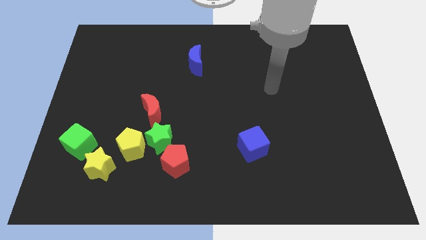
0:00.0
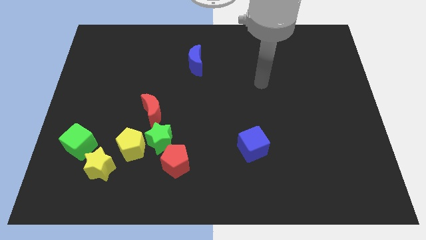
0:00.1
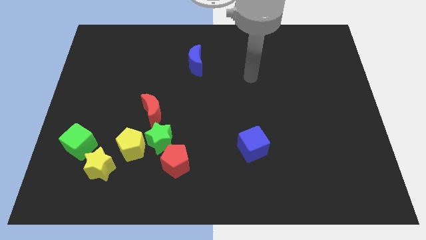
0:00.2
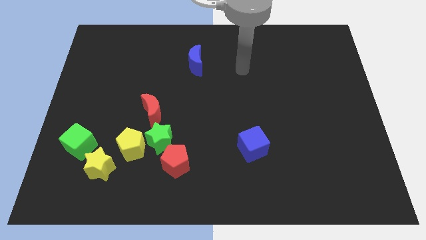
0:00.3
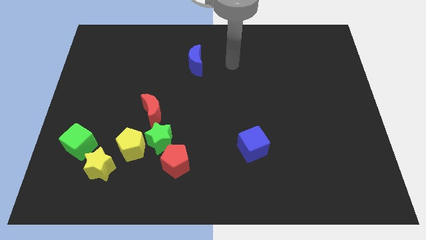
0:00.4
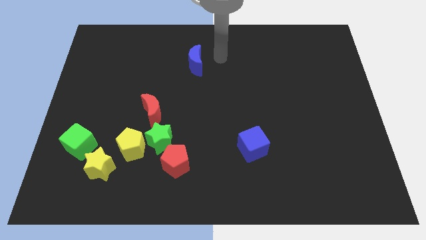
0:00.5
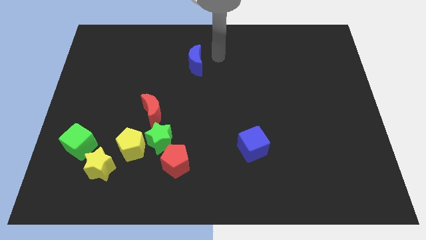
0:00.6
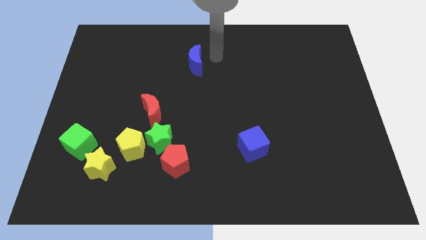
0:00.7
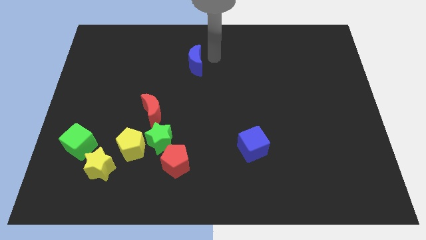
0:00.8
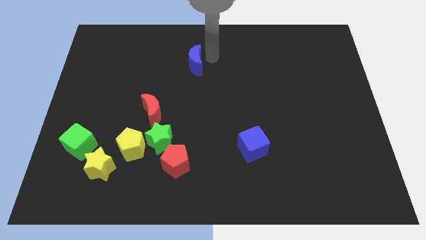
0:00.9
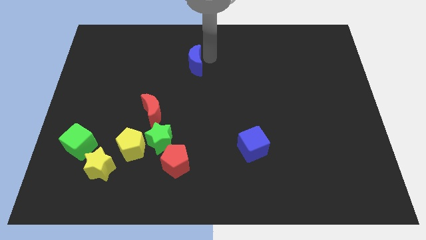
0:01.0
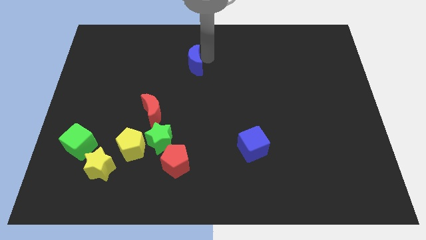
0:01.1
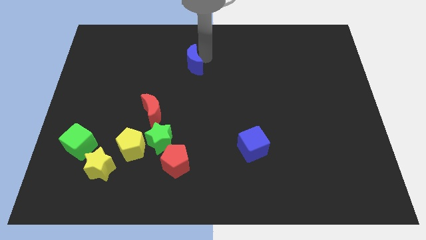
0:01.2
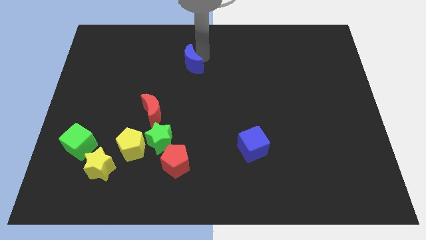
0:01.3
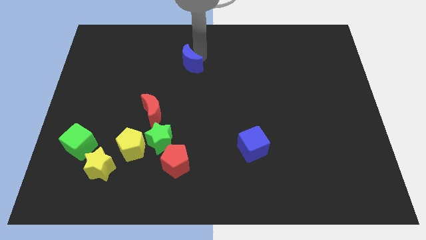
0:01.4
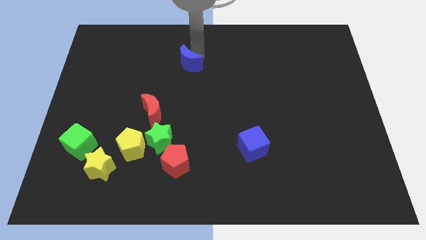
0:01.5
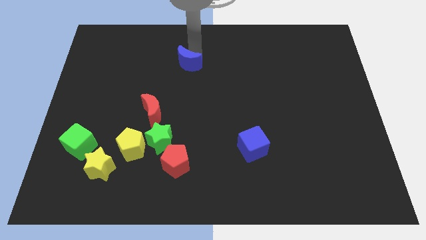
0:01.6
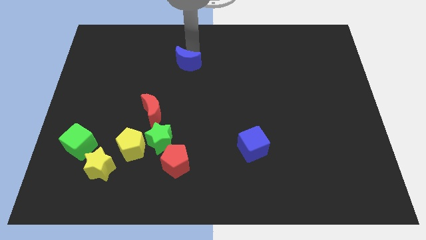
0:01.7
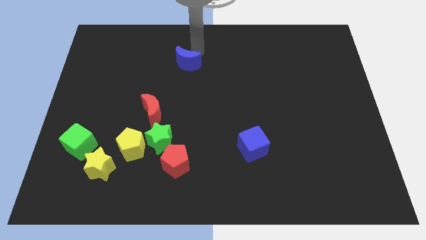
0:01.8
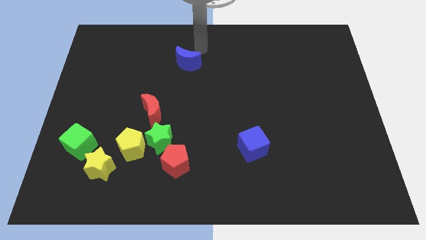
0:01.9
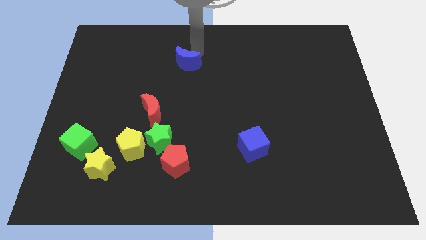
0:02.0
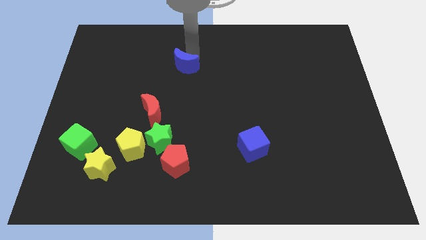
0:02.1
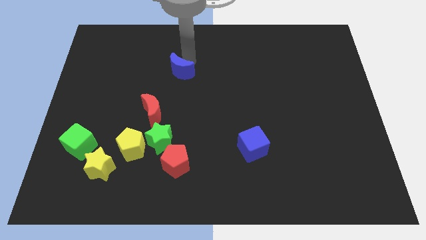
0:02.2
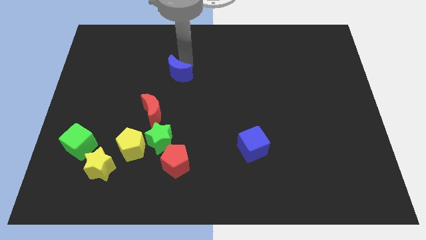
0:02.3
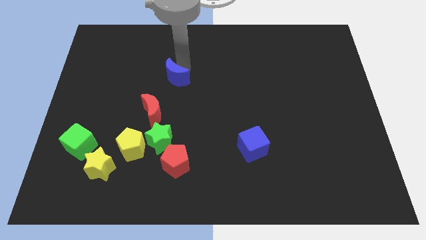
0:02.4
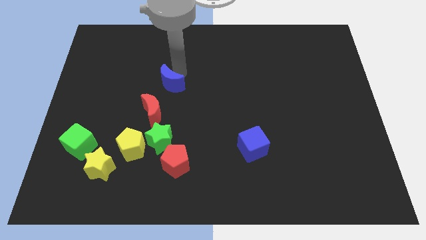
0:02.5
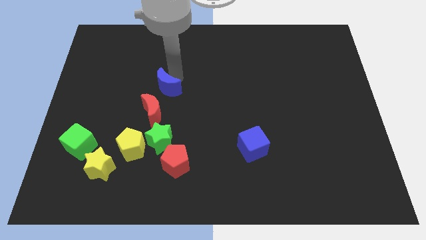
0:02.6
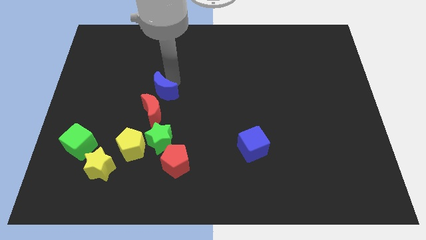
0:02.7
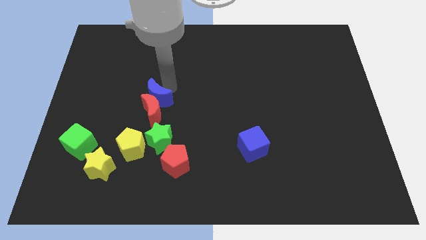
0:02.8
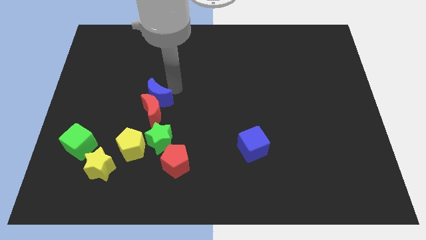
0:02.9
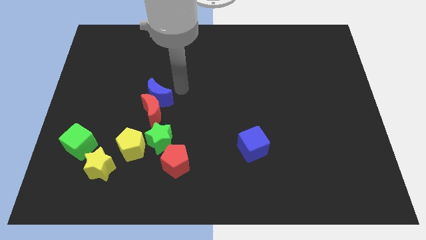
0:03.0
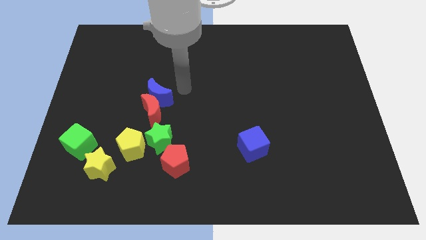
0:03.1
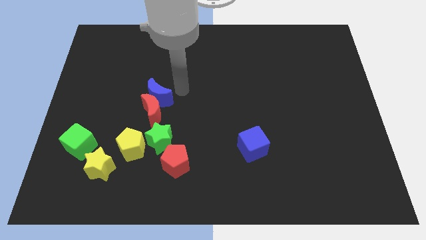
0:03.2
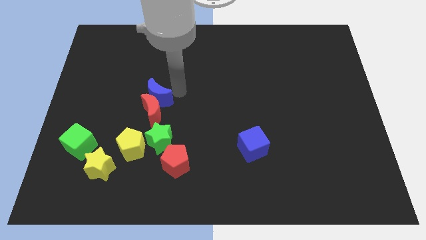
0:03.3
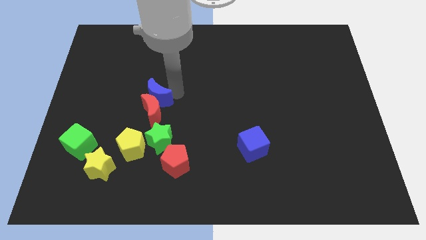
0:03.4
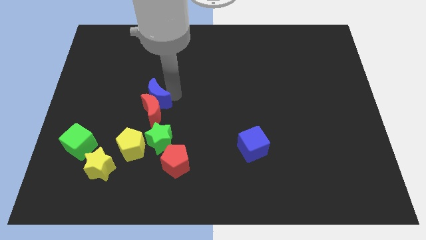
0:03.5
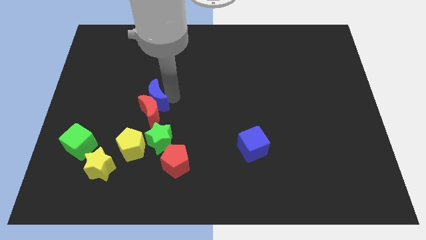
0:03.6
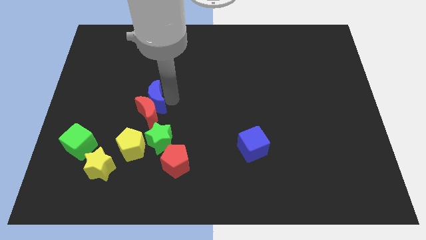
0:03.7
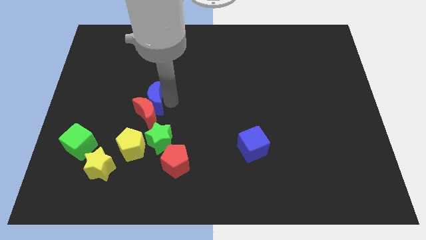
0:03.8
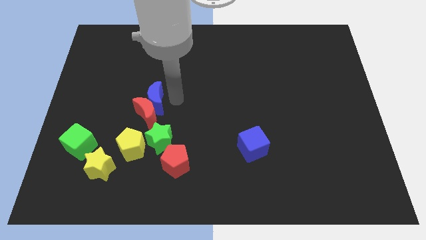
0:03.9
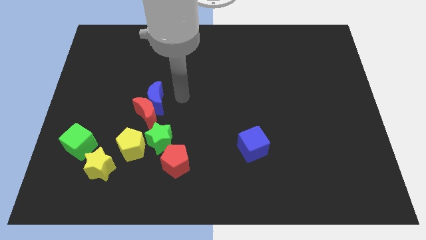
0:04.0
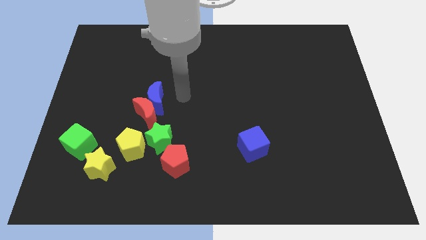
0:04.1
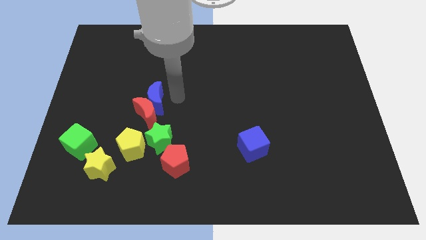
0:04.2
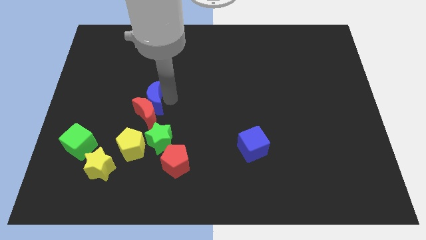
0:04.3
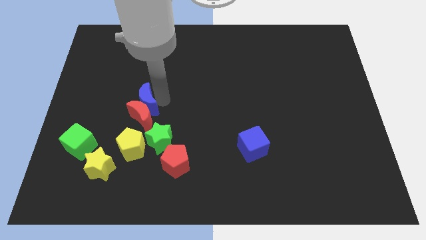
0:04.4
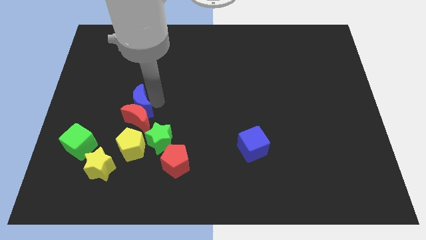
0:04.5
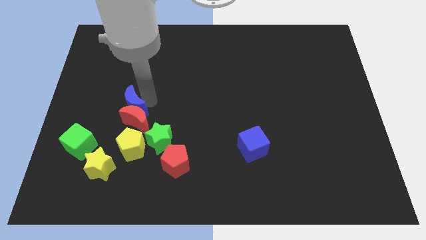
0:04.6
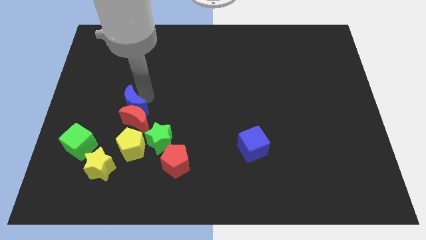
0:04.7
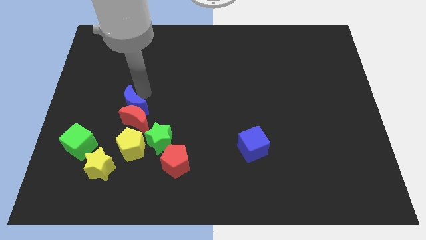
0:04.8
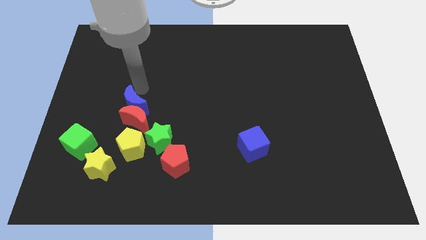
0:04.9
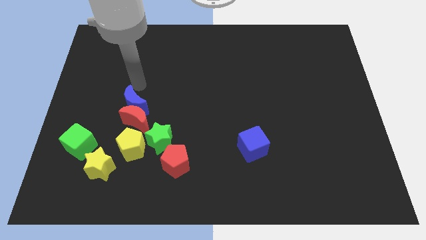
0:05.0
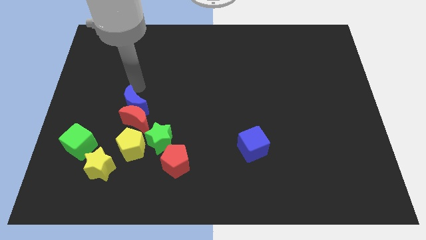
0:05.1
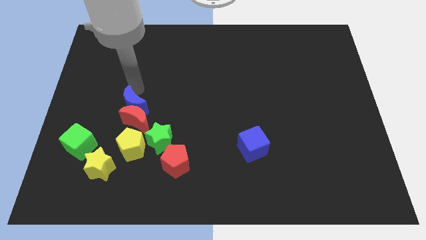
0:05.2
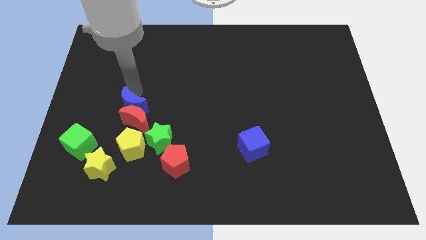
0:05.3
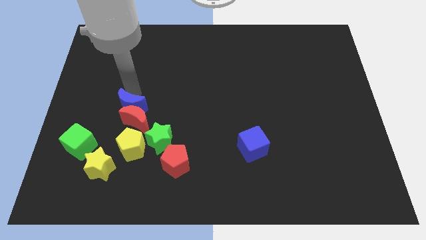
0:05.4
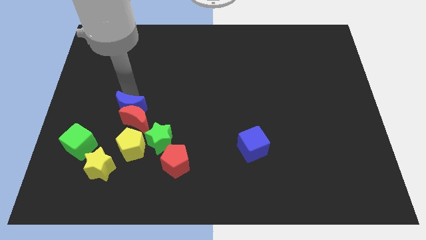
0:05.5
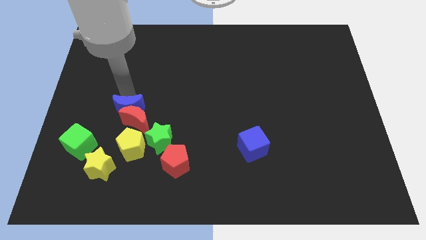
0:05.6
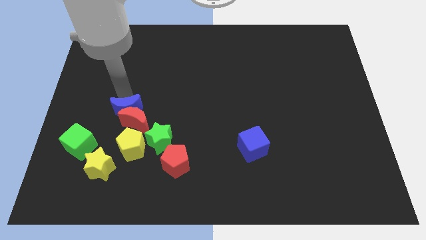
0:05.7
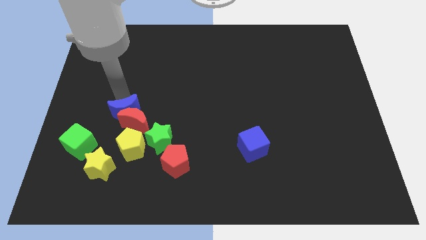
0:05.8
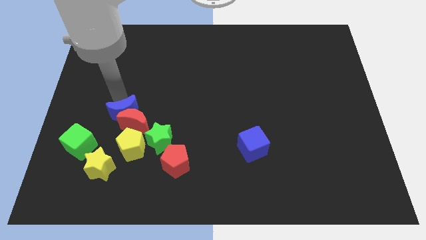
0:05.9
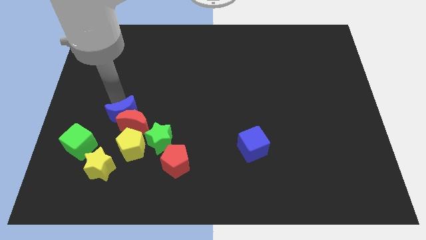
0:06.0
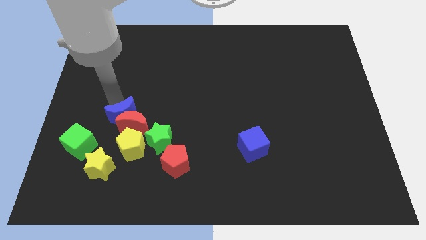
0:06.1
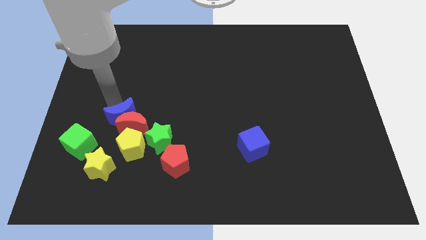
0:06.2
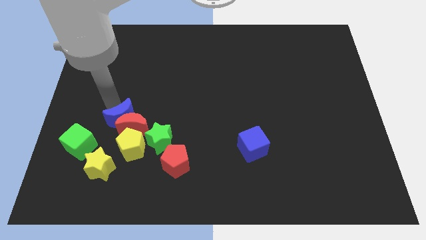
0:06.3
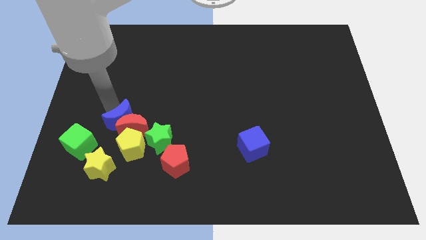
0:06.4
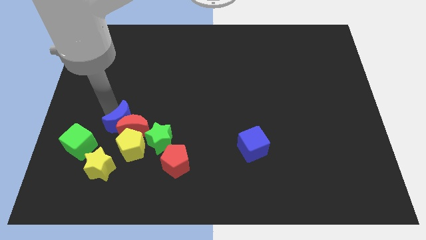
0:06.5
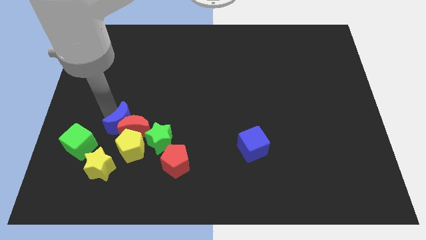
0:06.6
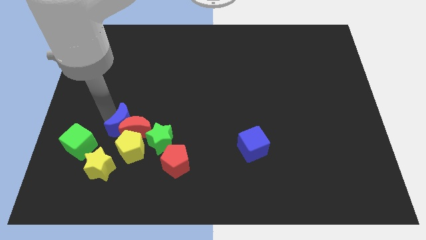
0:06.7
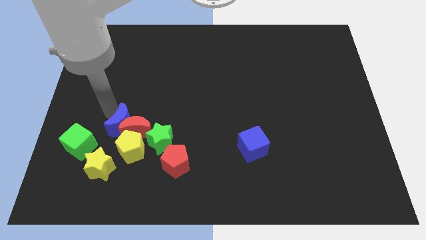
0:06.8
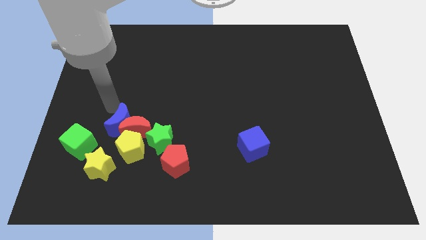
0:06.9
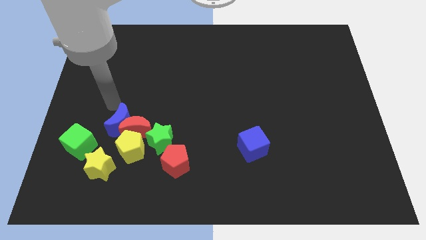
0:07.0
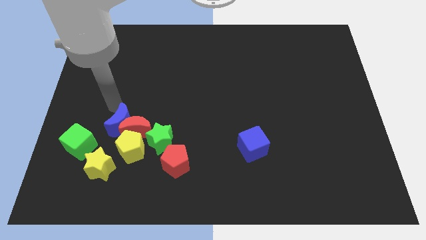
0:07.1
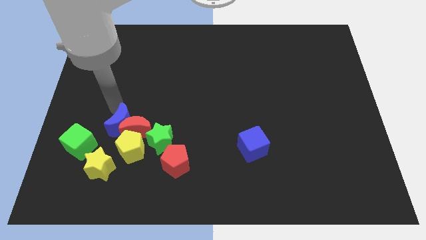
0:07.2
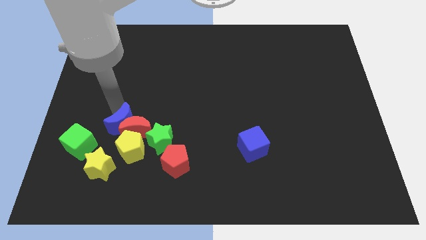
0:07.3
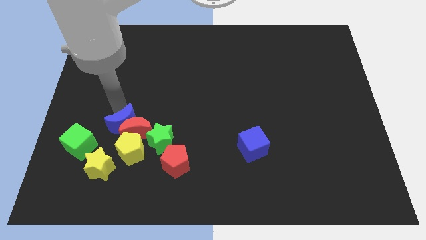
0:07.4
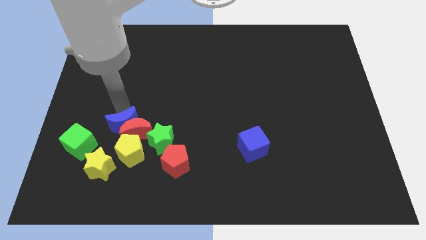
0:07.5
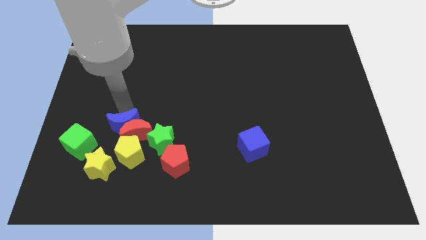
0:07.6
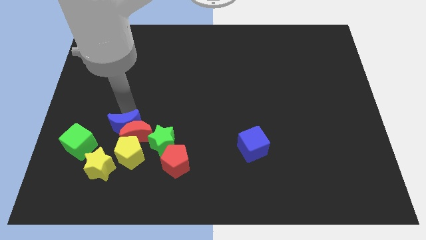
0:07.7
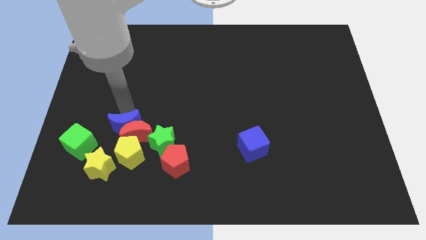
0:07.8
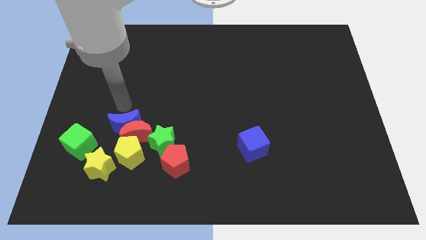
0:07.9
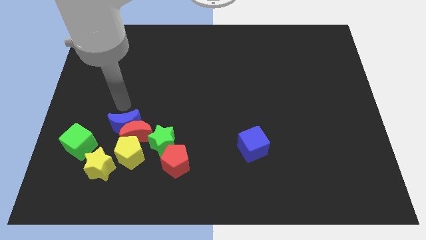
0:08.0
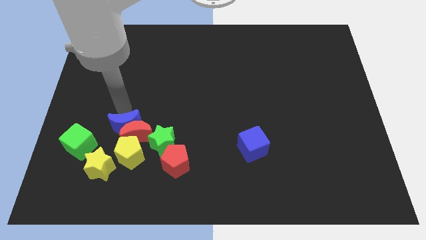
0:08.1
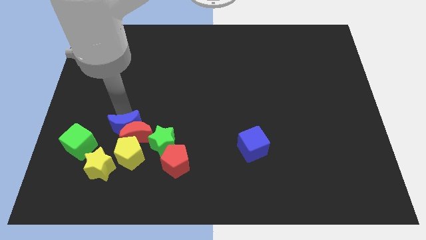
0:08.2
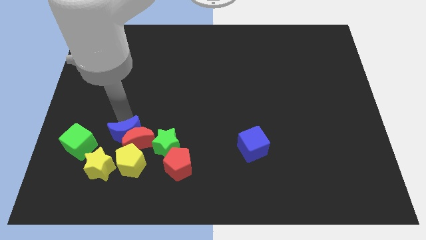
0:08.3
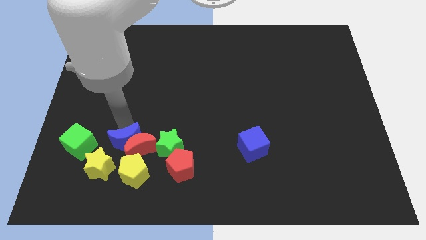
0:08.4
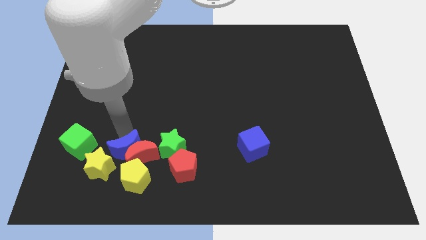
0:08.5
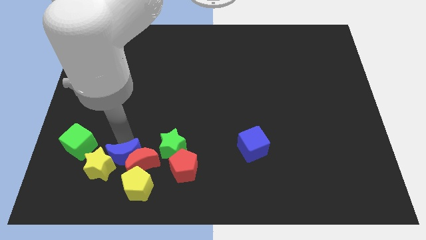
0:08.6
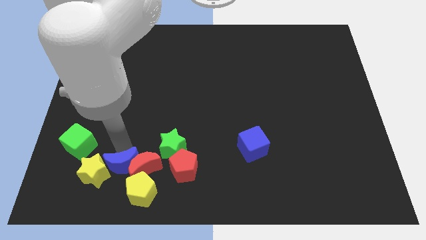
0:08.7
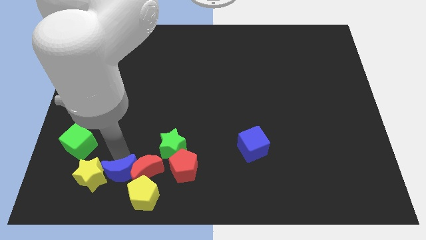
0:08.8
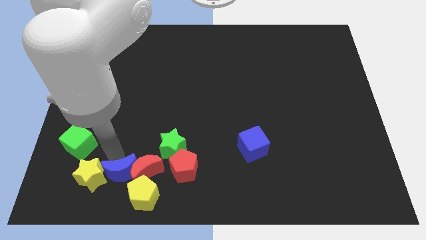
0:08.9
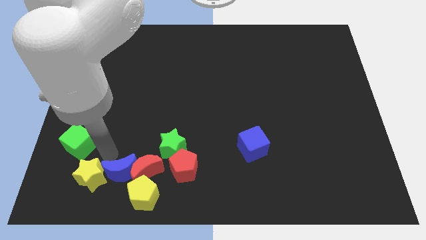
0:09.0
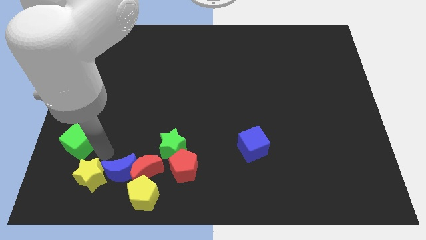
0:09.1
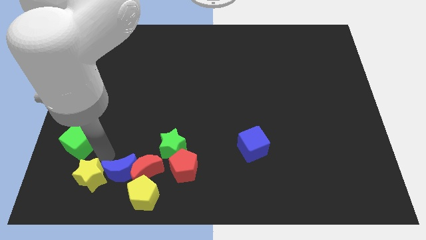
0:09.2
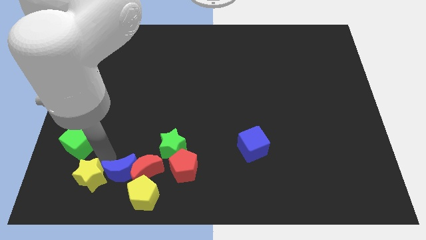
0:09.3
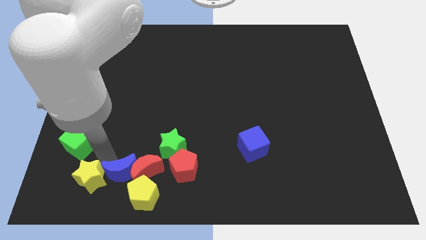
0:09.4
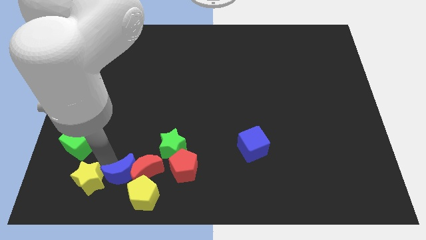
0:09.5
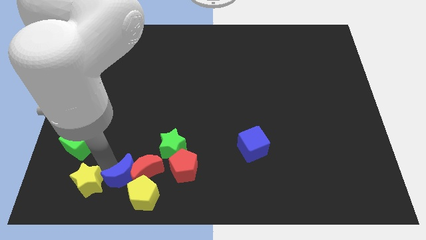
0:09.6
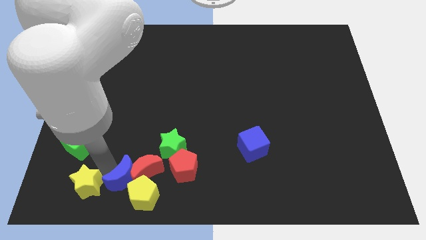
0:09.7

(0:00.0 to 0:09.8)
move the blue moon towards the yellow pentagon
